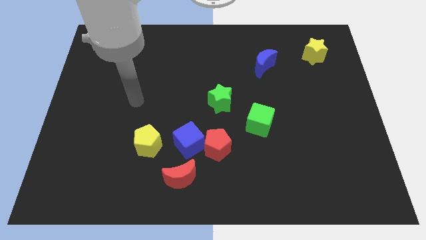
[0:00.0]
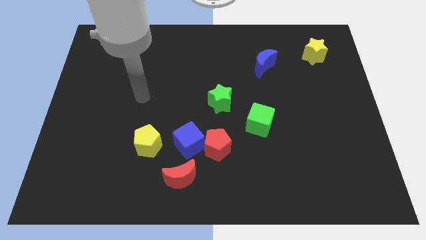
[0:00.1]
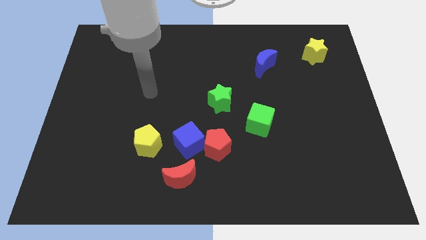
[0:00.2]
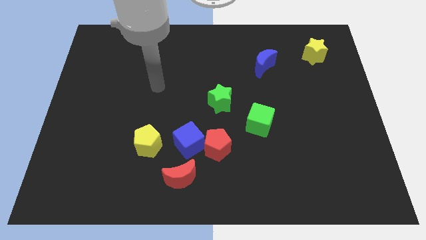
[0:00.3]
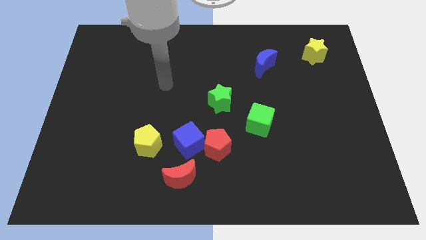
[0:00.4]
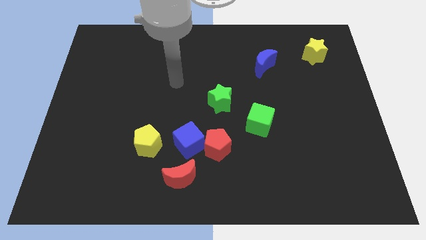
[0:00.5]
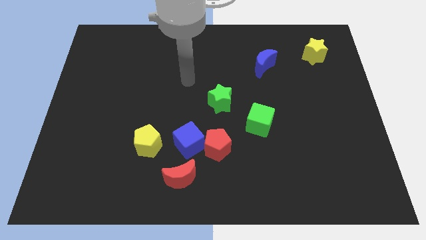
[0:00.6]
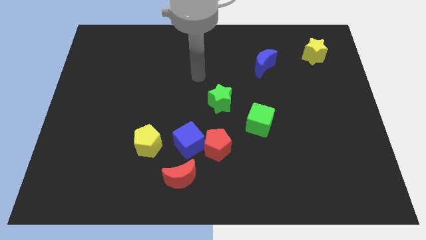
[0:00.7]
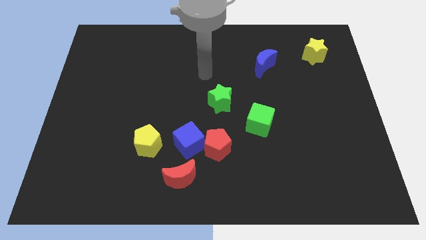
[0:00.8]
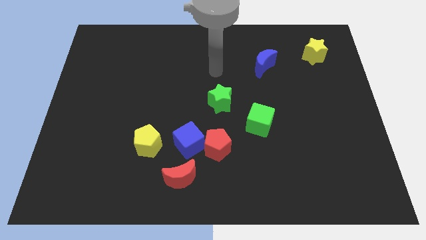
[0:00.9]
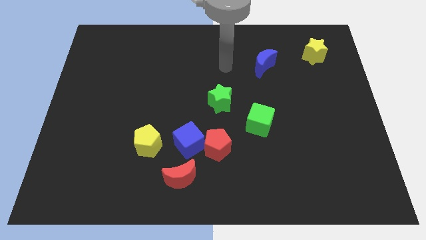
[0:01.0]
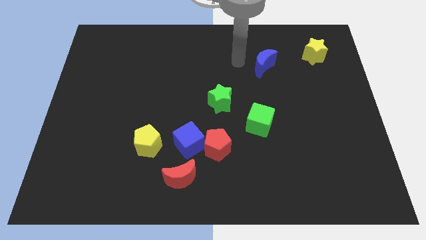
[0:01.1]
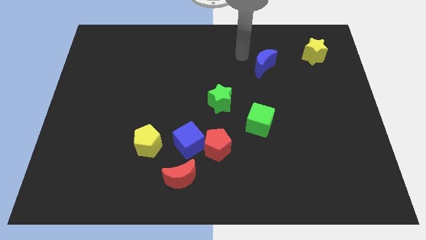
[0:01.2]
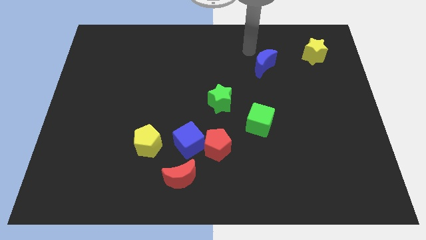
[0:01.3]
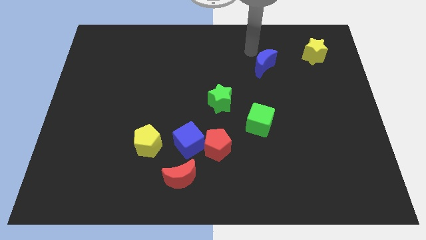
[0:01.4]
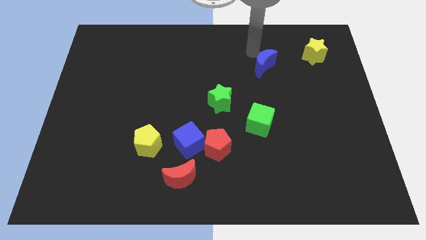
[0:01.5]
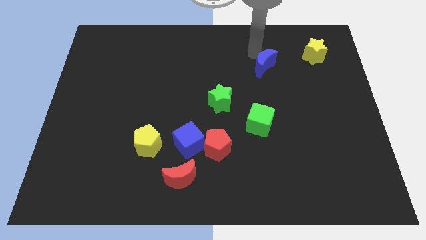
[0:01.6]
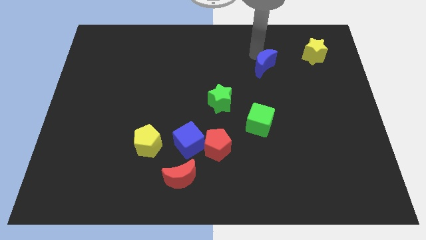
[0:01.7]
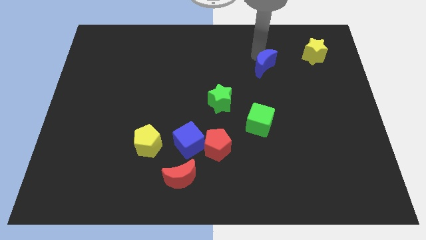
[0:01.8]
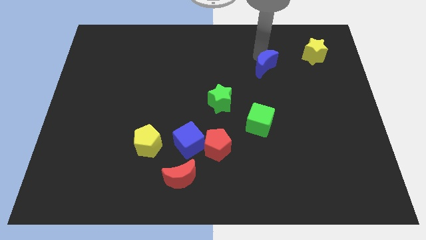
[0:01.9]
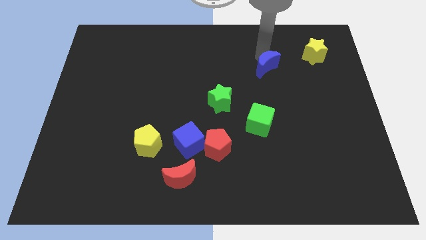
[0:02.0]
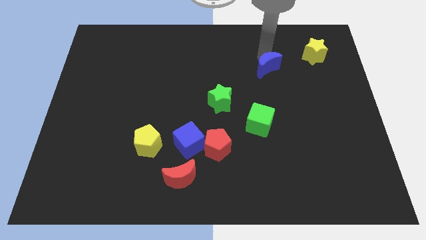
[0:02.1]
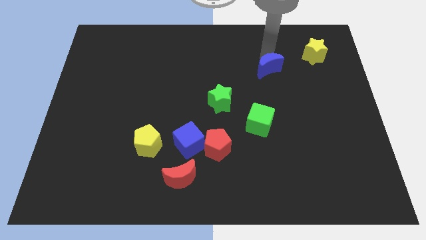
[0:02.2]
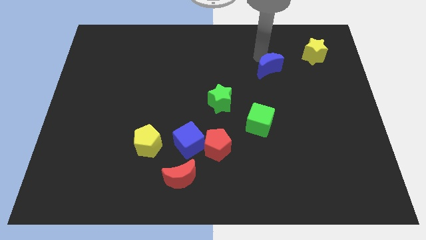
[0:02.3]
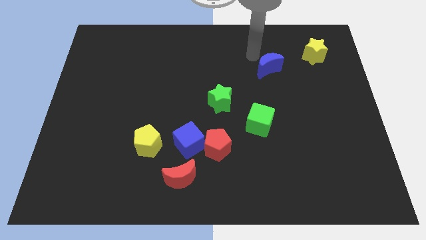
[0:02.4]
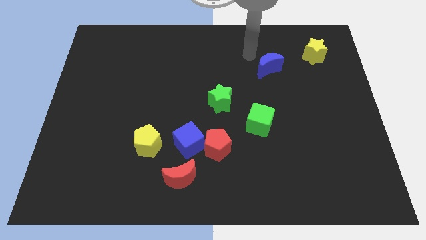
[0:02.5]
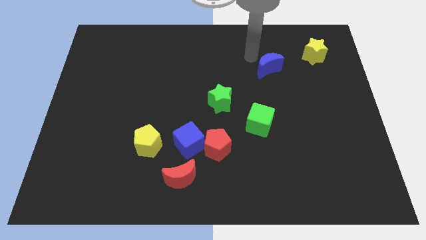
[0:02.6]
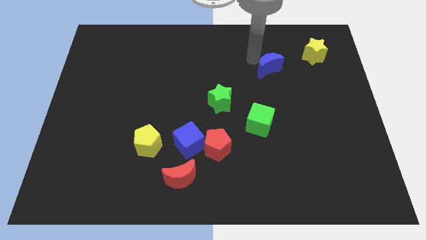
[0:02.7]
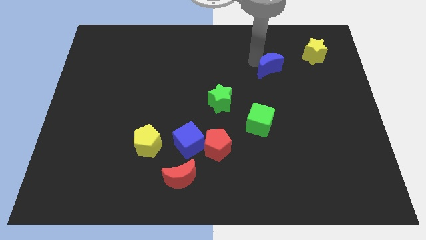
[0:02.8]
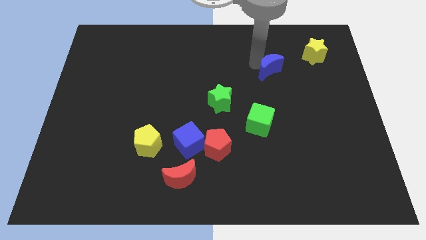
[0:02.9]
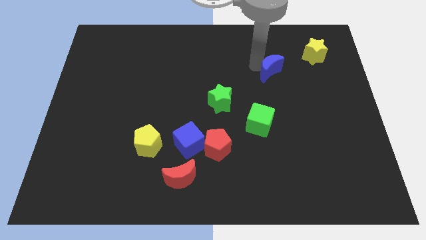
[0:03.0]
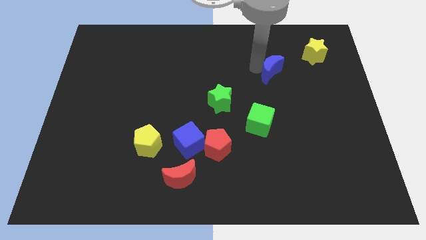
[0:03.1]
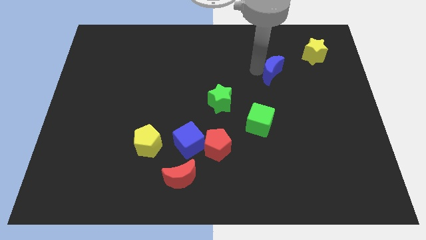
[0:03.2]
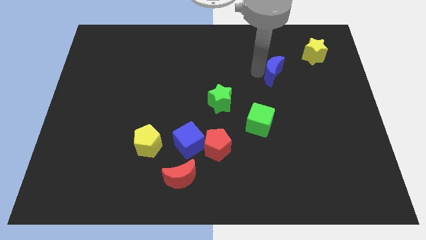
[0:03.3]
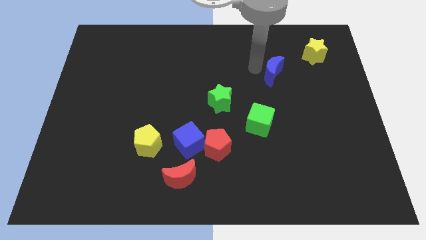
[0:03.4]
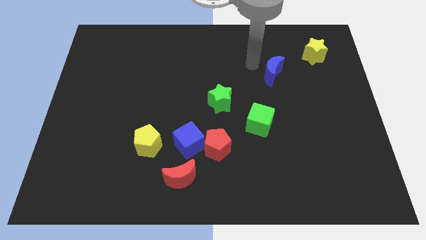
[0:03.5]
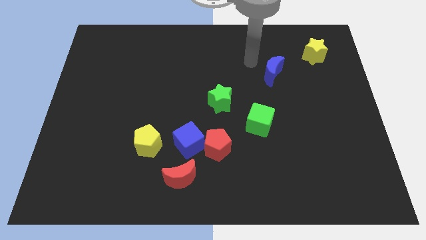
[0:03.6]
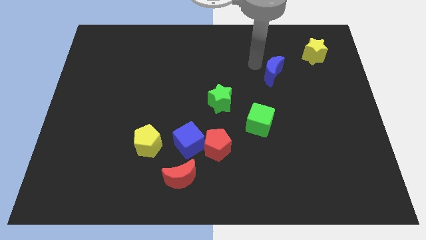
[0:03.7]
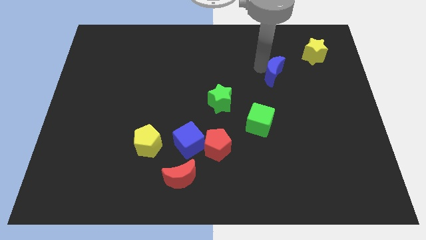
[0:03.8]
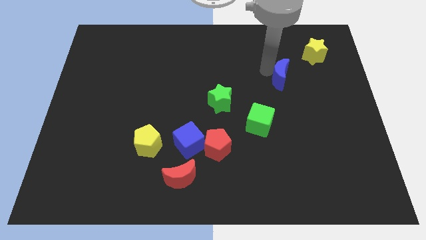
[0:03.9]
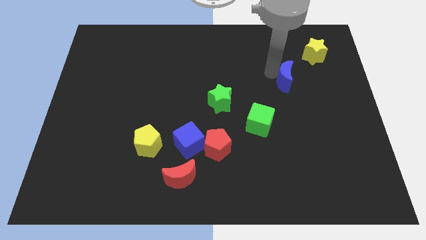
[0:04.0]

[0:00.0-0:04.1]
slightly move the blue moon down and then right

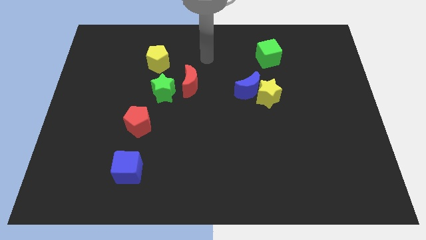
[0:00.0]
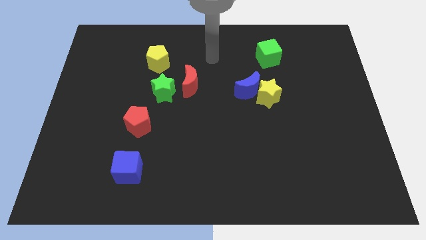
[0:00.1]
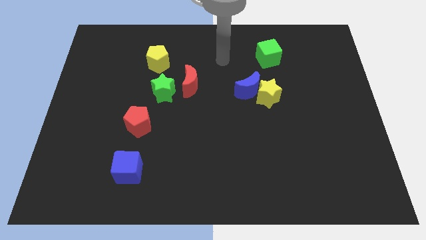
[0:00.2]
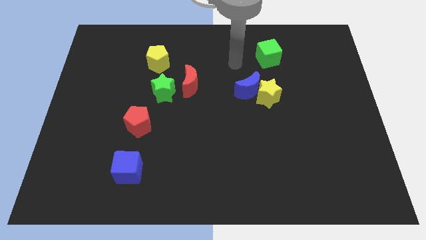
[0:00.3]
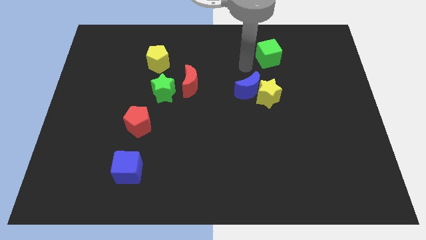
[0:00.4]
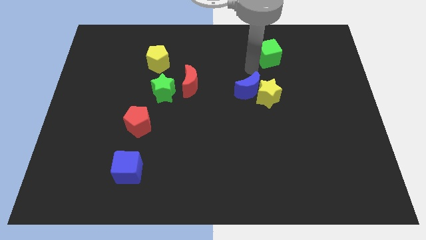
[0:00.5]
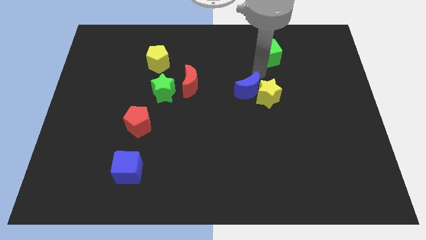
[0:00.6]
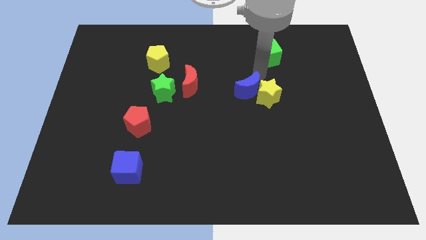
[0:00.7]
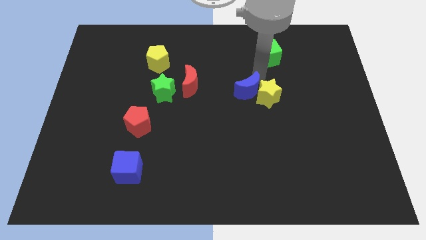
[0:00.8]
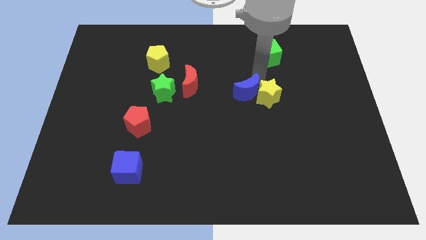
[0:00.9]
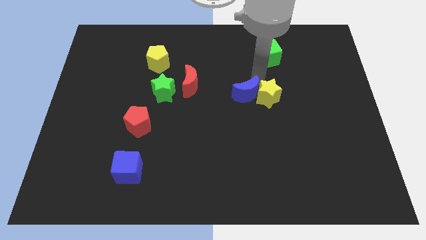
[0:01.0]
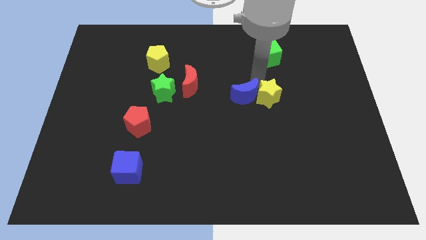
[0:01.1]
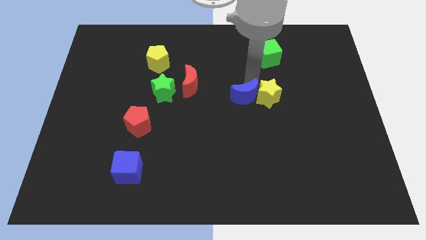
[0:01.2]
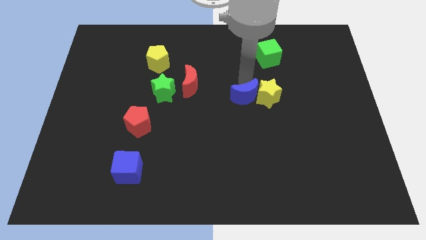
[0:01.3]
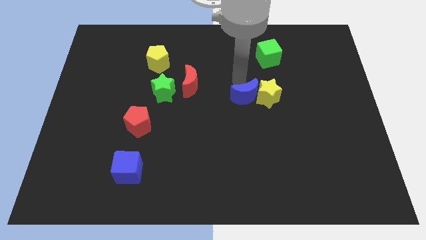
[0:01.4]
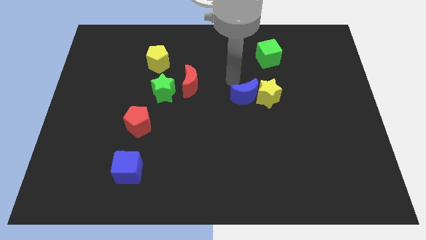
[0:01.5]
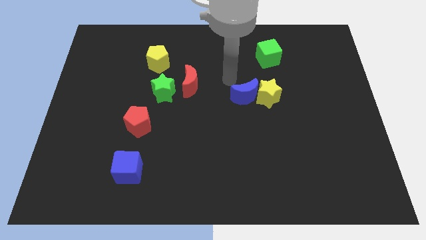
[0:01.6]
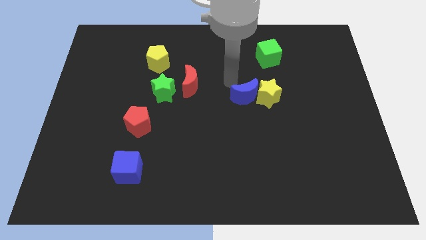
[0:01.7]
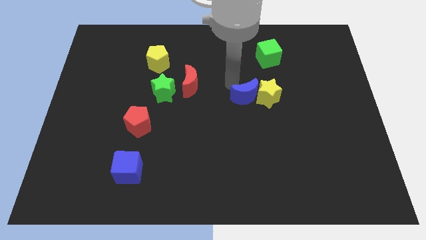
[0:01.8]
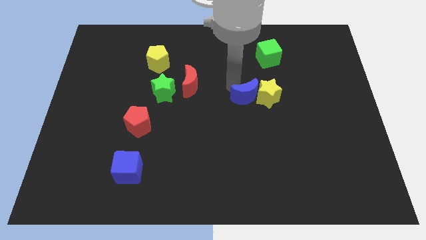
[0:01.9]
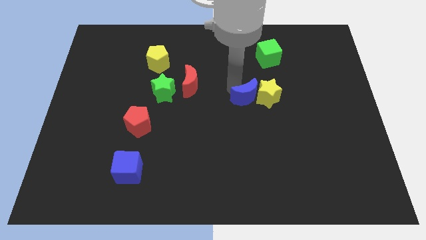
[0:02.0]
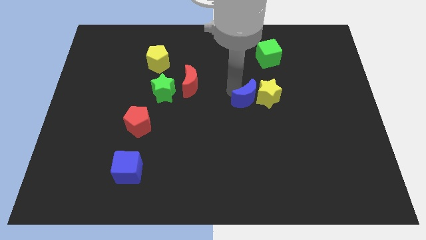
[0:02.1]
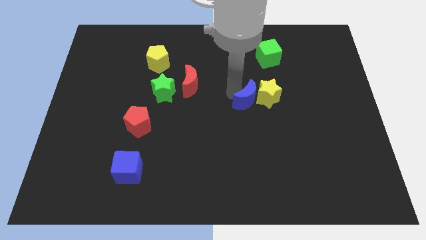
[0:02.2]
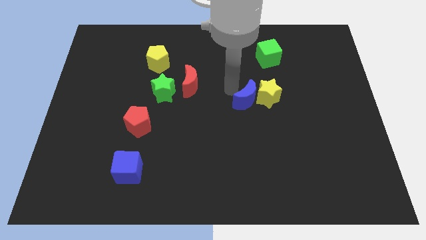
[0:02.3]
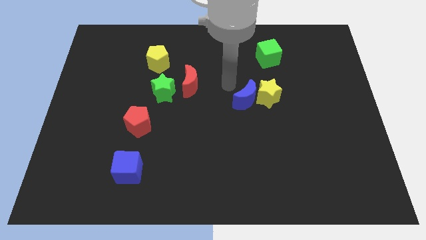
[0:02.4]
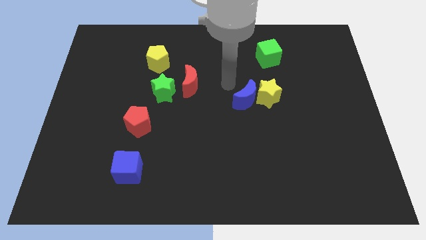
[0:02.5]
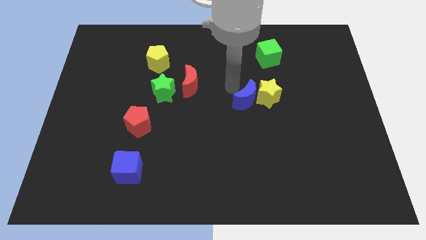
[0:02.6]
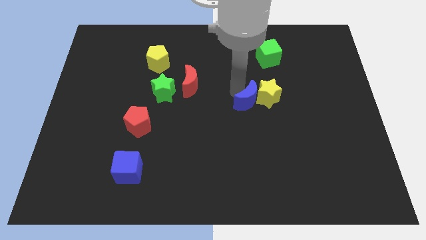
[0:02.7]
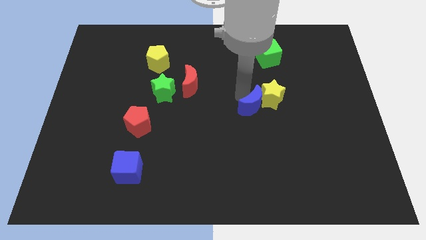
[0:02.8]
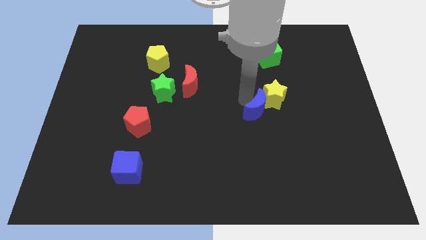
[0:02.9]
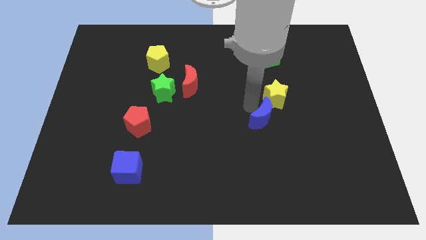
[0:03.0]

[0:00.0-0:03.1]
move the blue moon a little bit down and to the right diagonally

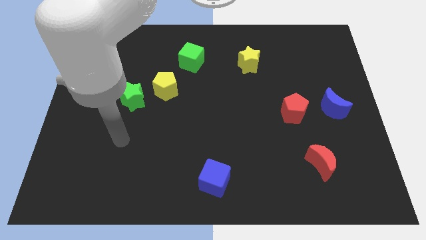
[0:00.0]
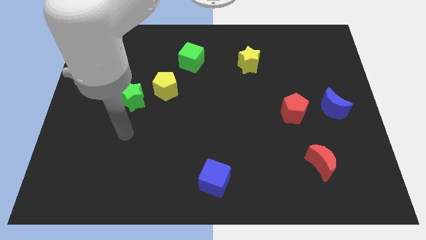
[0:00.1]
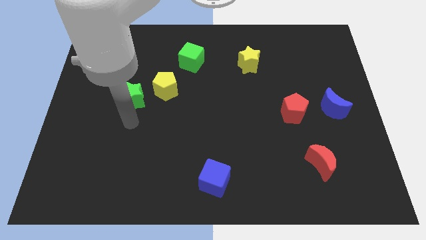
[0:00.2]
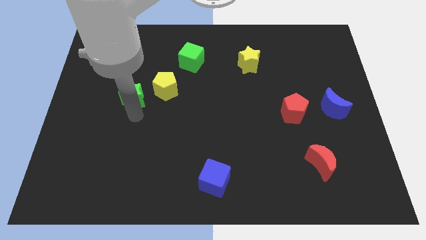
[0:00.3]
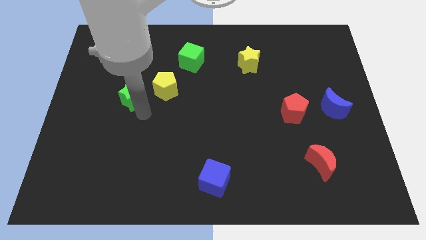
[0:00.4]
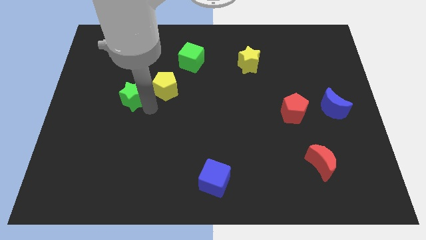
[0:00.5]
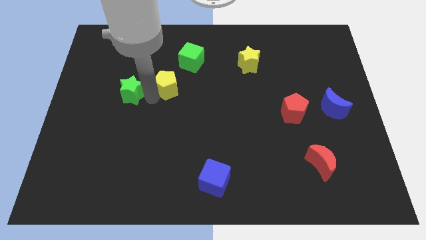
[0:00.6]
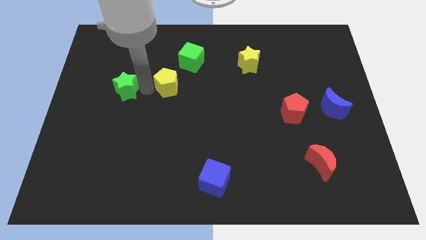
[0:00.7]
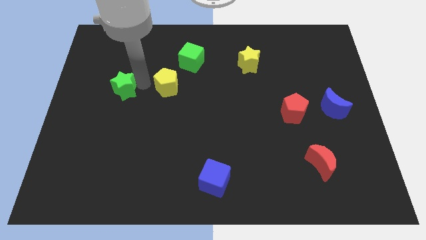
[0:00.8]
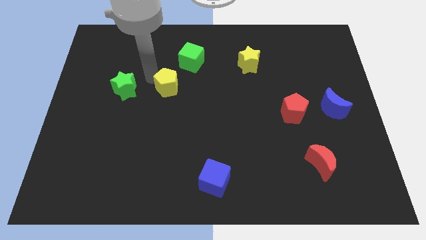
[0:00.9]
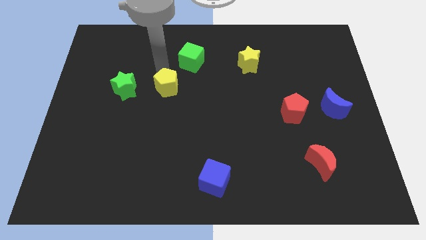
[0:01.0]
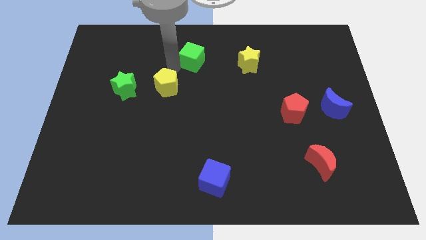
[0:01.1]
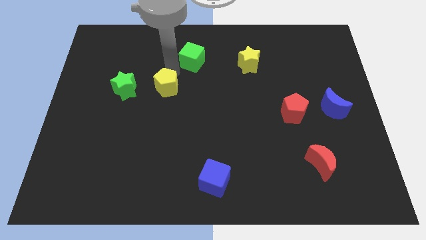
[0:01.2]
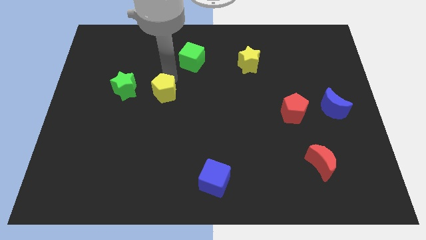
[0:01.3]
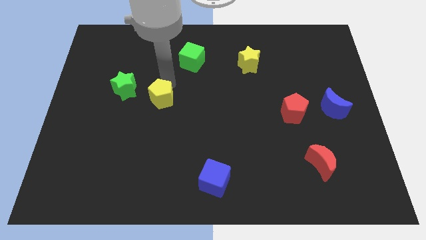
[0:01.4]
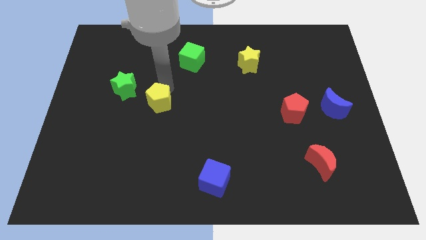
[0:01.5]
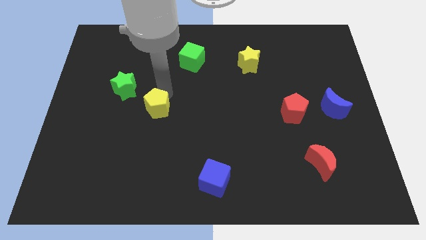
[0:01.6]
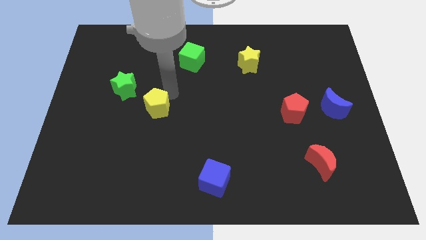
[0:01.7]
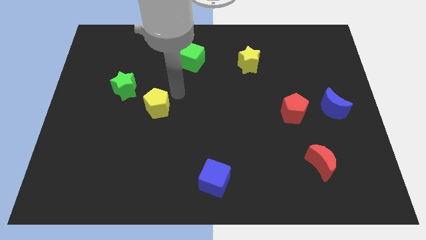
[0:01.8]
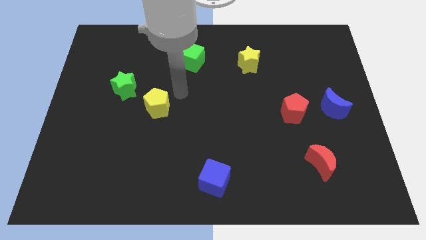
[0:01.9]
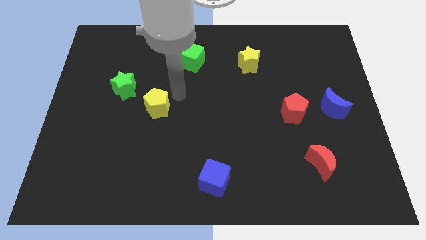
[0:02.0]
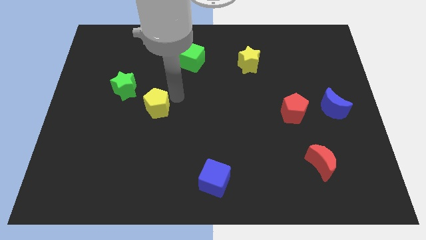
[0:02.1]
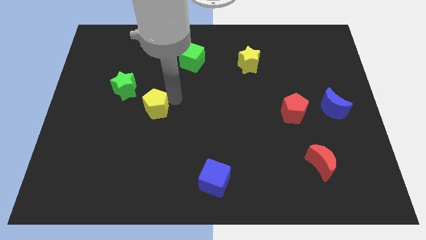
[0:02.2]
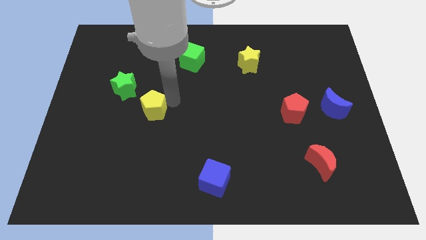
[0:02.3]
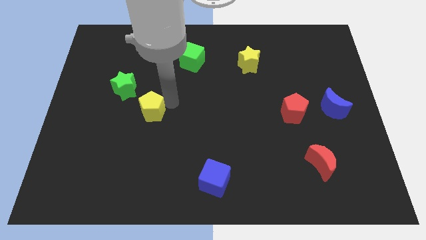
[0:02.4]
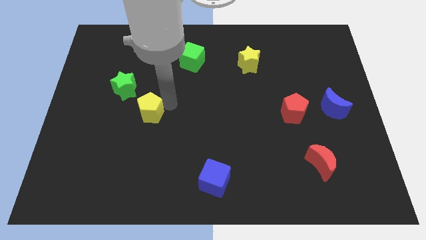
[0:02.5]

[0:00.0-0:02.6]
slightly move the yellow pentagon downwards and to the left
